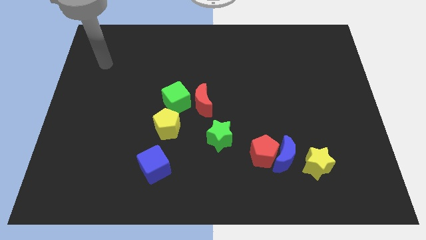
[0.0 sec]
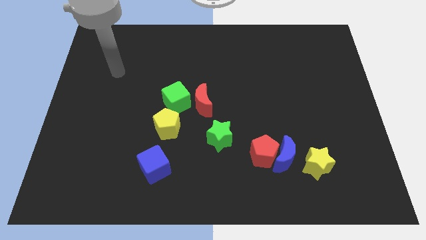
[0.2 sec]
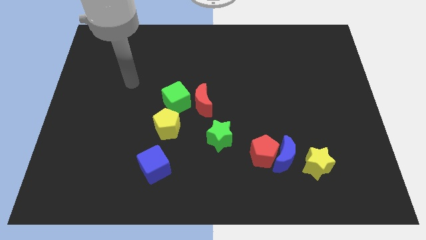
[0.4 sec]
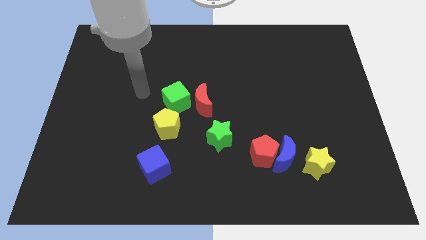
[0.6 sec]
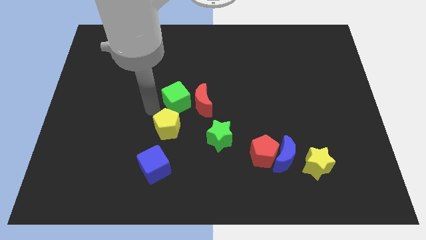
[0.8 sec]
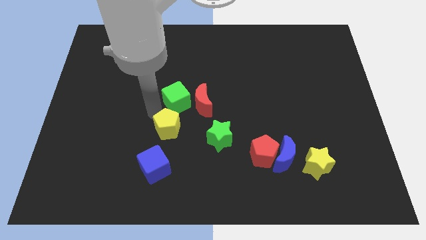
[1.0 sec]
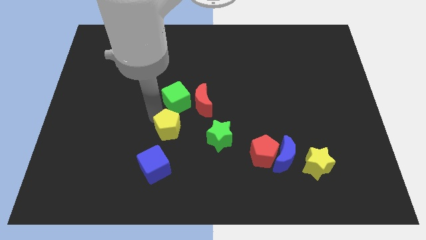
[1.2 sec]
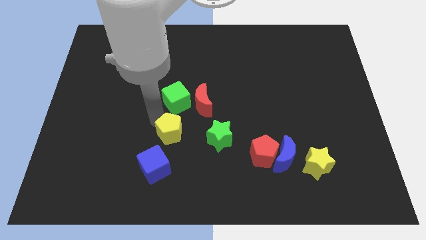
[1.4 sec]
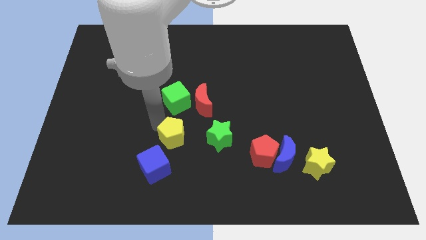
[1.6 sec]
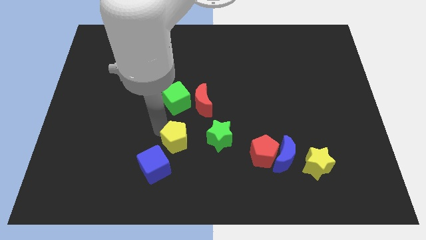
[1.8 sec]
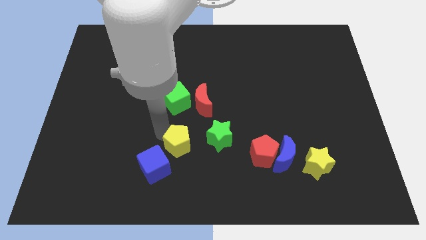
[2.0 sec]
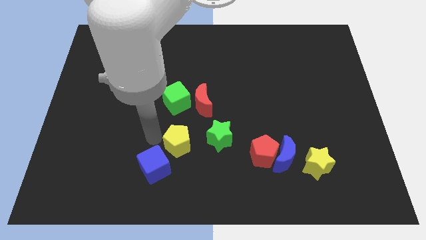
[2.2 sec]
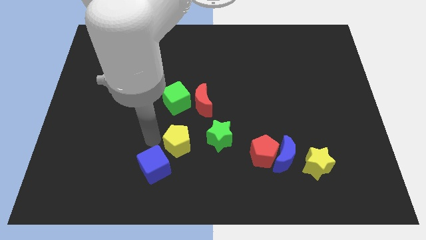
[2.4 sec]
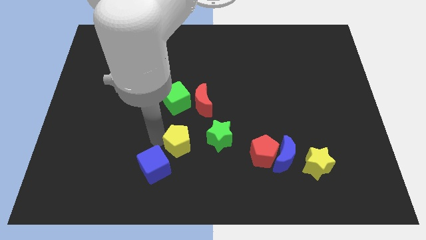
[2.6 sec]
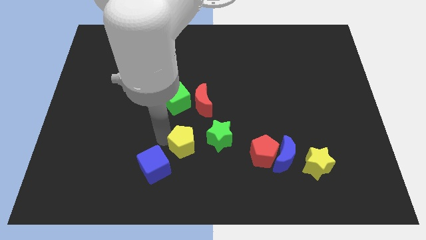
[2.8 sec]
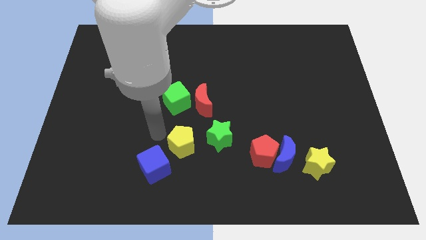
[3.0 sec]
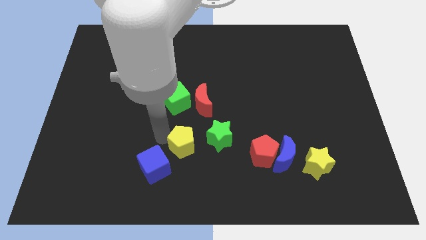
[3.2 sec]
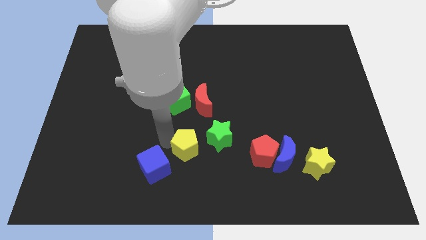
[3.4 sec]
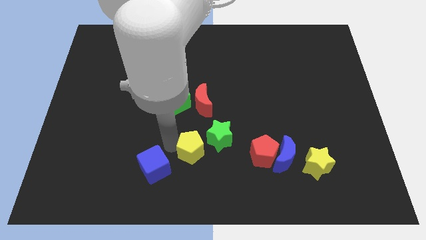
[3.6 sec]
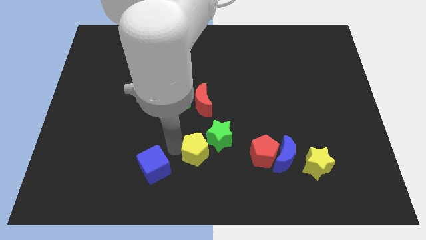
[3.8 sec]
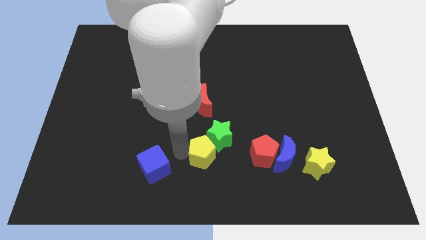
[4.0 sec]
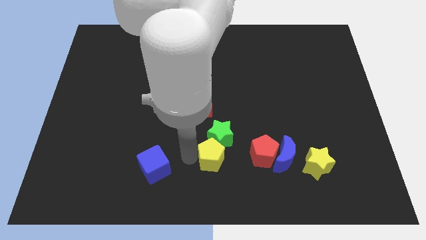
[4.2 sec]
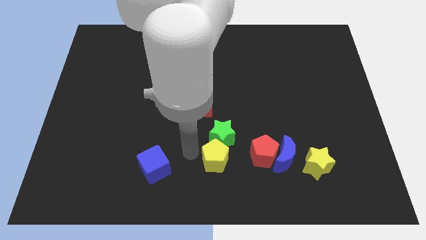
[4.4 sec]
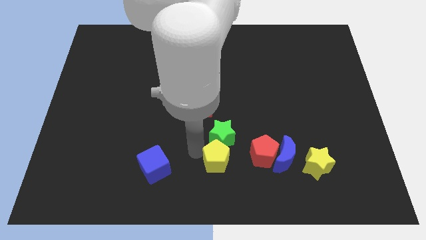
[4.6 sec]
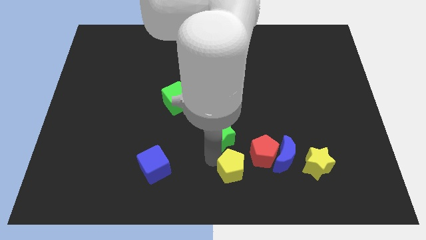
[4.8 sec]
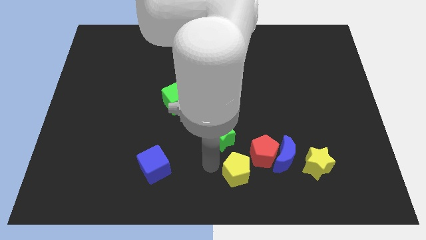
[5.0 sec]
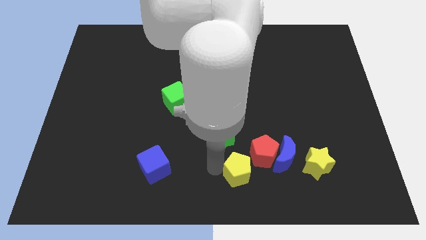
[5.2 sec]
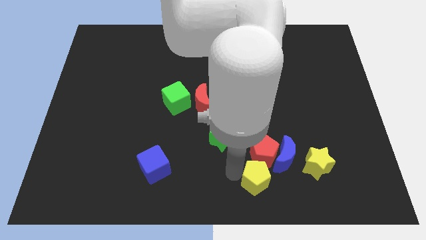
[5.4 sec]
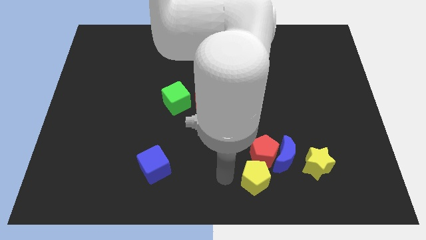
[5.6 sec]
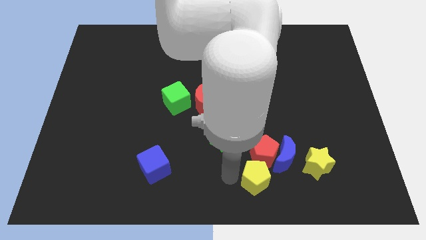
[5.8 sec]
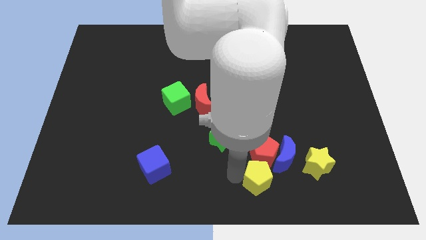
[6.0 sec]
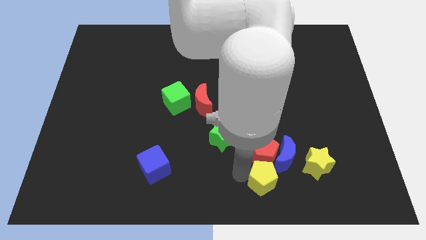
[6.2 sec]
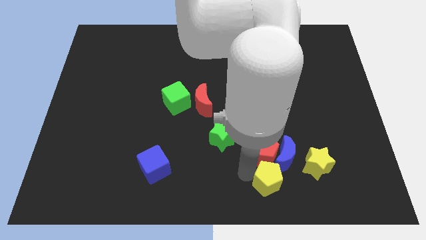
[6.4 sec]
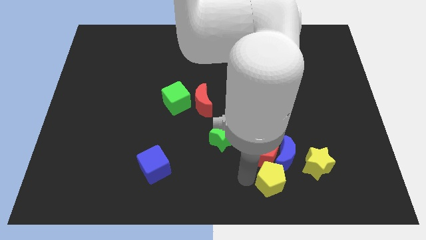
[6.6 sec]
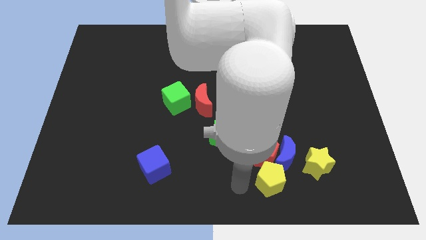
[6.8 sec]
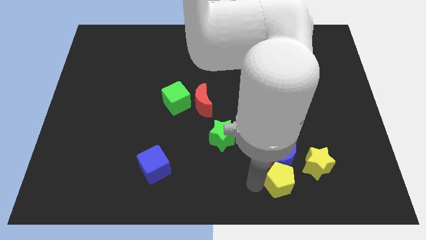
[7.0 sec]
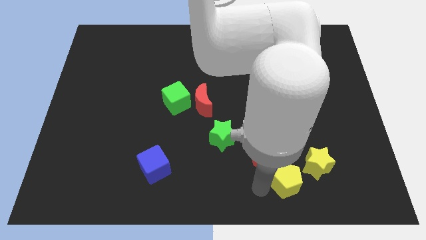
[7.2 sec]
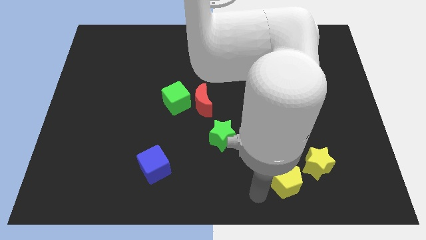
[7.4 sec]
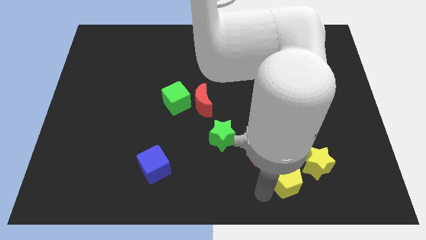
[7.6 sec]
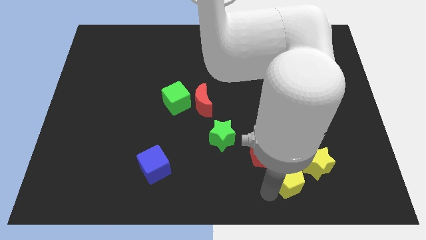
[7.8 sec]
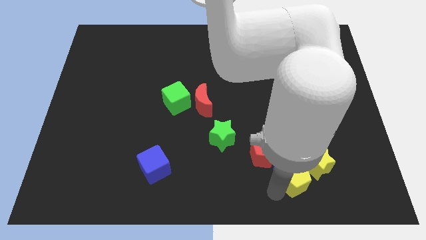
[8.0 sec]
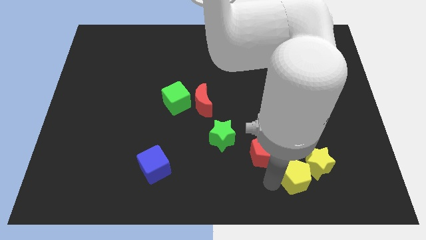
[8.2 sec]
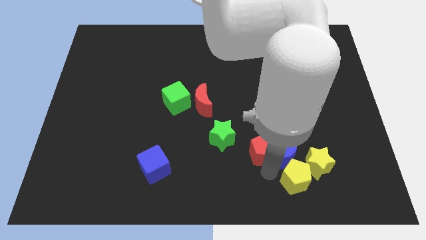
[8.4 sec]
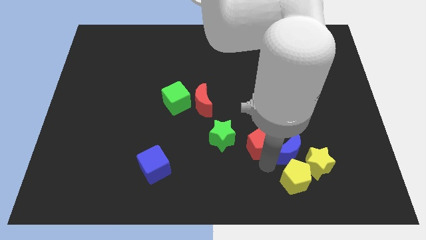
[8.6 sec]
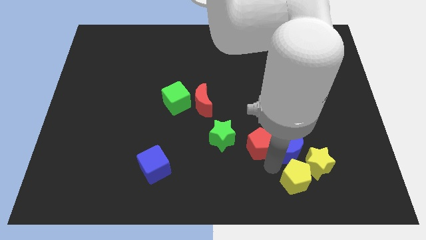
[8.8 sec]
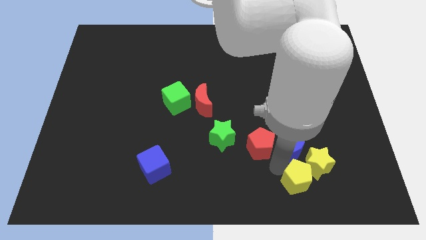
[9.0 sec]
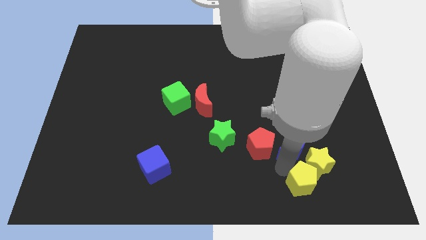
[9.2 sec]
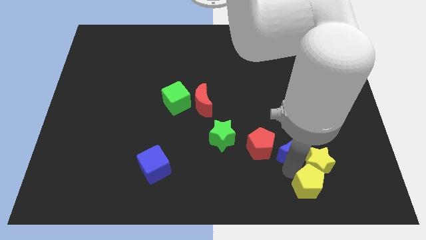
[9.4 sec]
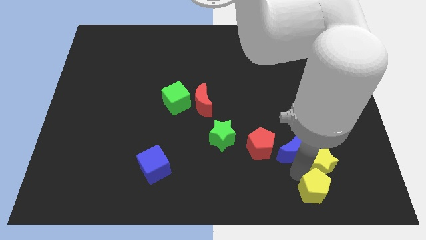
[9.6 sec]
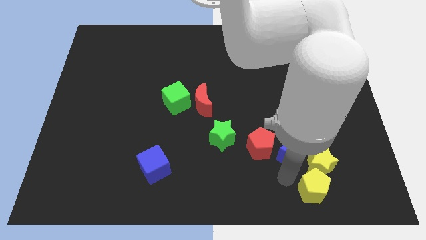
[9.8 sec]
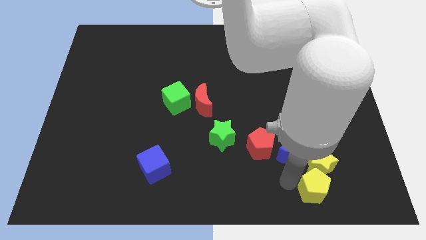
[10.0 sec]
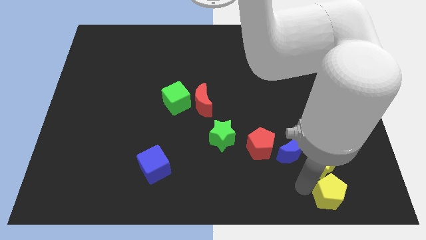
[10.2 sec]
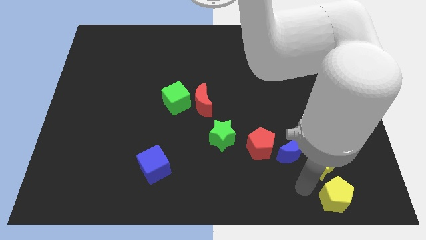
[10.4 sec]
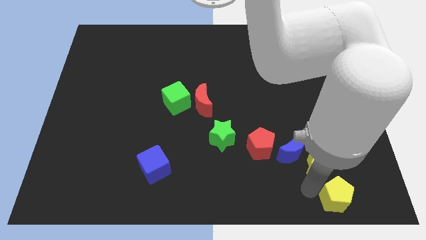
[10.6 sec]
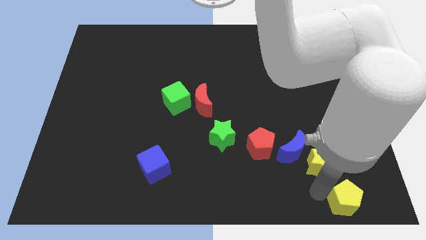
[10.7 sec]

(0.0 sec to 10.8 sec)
slide the yellow pentagon to the bottom right of the board

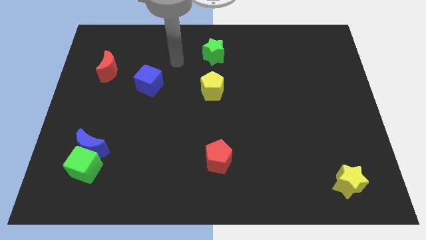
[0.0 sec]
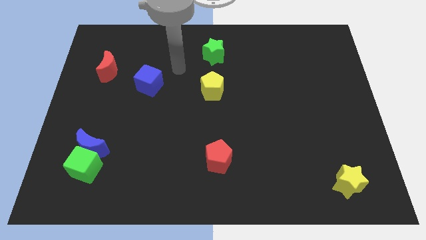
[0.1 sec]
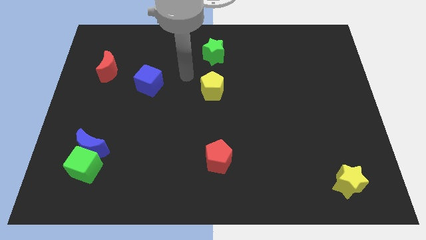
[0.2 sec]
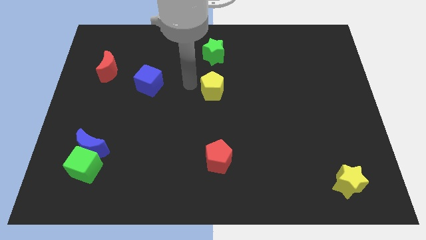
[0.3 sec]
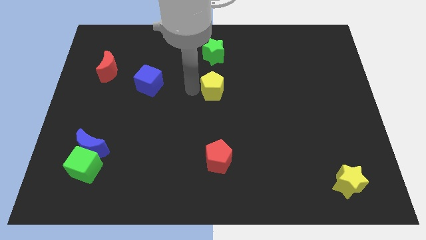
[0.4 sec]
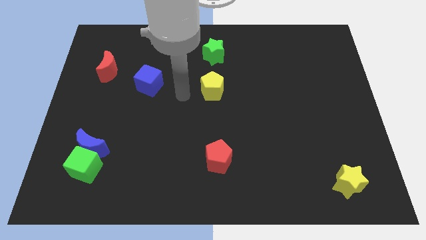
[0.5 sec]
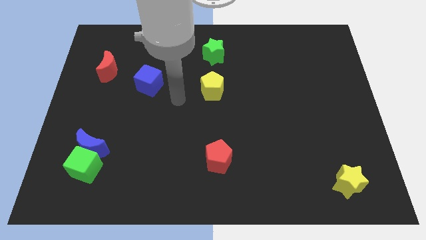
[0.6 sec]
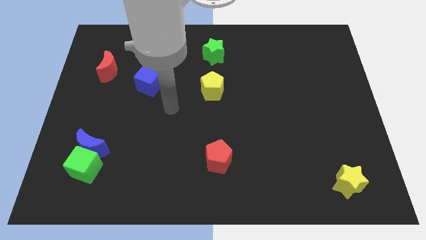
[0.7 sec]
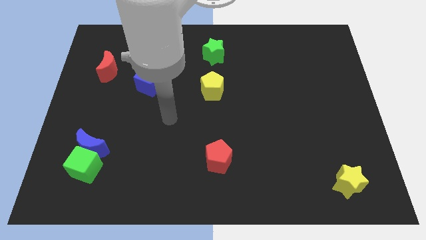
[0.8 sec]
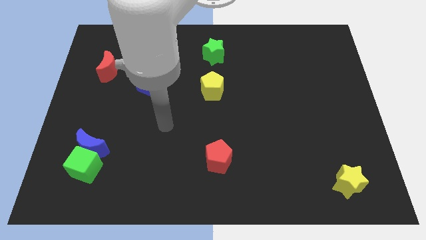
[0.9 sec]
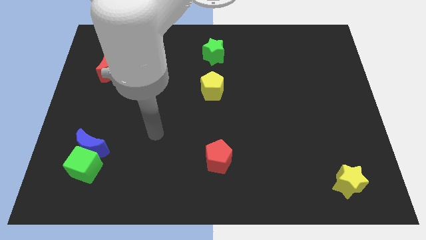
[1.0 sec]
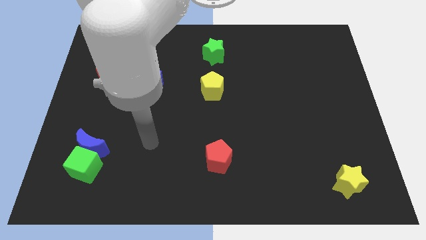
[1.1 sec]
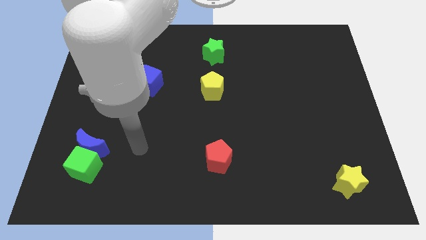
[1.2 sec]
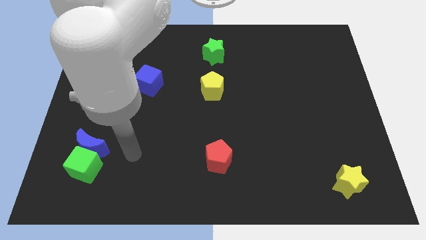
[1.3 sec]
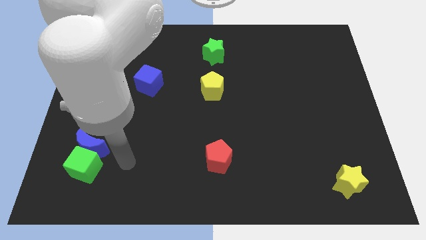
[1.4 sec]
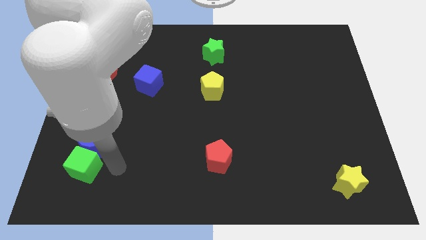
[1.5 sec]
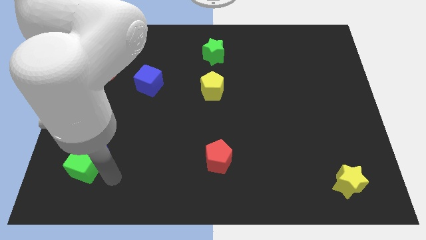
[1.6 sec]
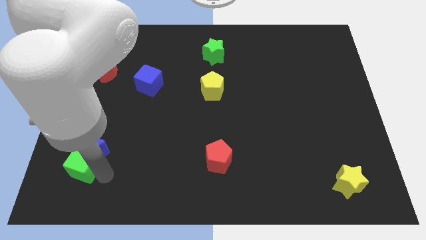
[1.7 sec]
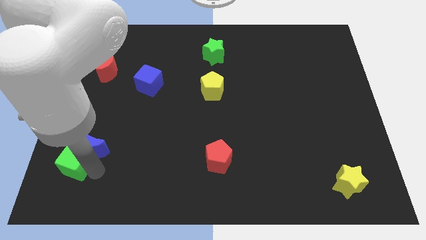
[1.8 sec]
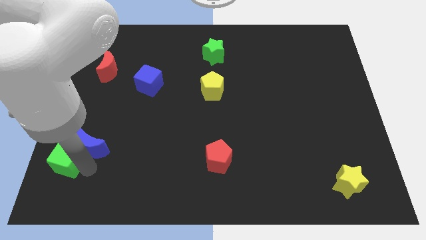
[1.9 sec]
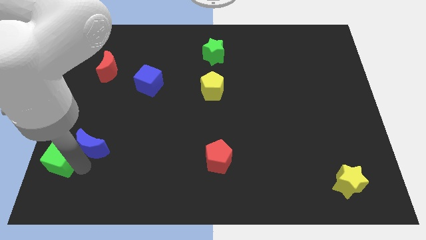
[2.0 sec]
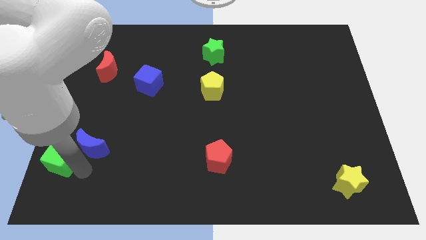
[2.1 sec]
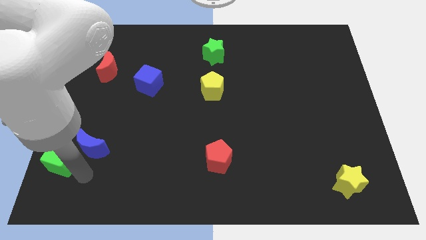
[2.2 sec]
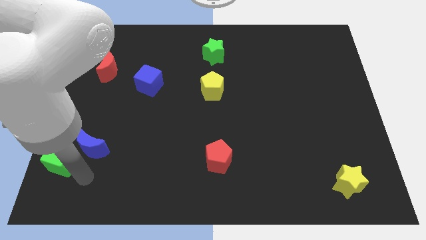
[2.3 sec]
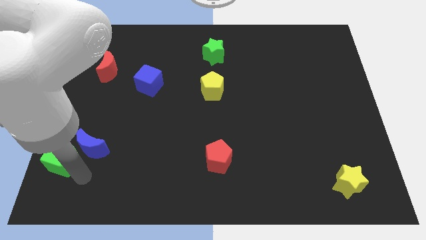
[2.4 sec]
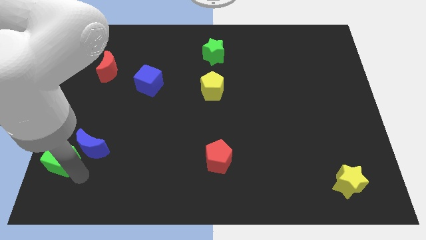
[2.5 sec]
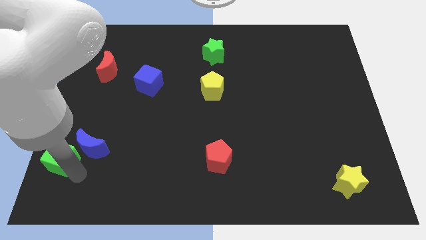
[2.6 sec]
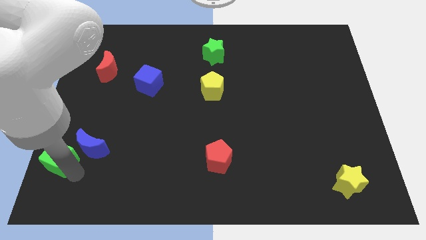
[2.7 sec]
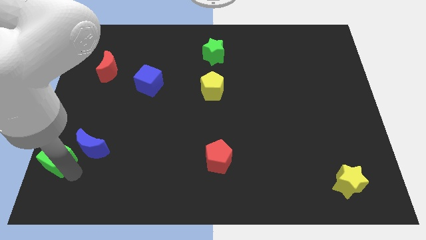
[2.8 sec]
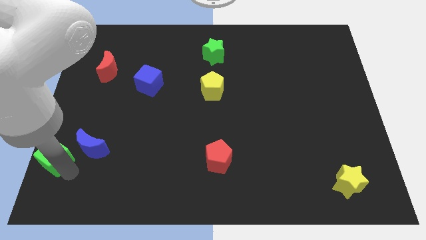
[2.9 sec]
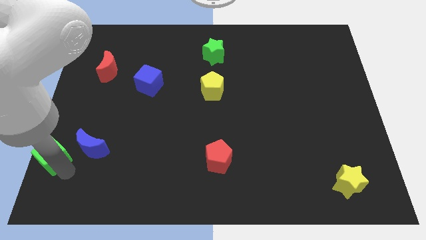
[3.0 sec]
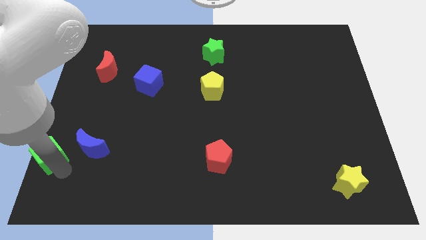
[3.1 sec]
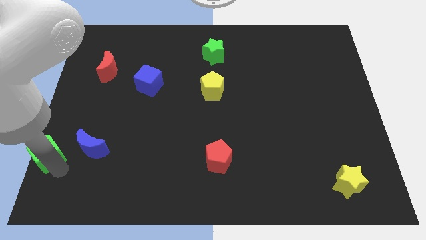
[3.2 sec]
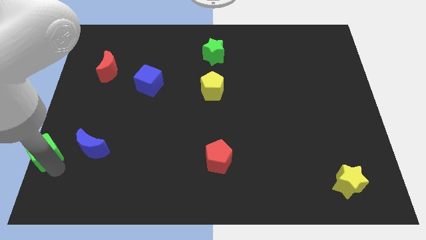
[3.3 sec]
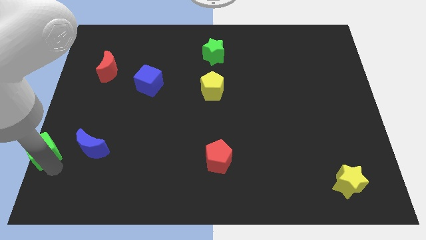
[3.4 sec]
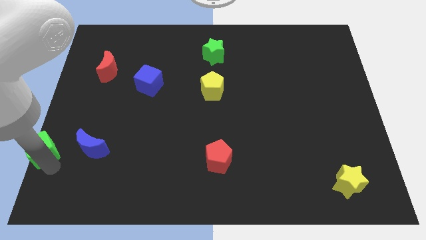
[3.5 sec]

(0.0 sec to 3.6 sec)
move the green cube to the left side of the board
